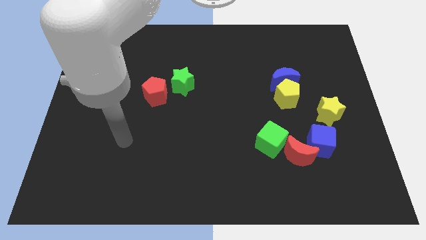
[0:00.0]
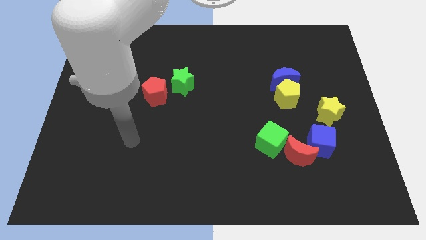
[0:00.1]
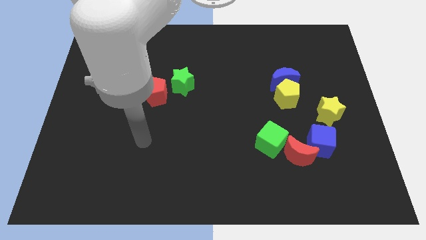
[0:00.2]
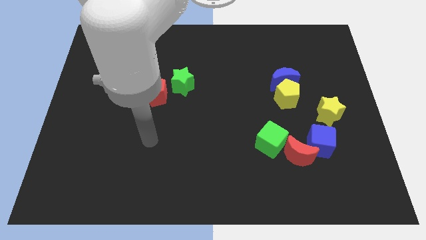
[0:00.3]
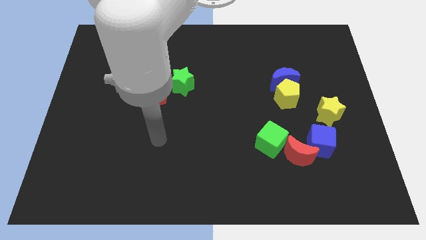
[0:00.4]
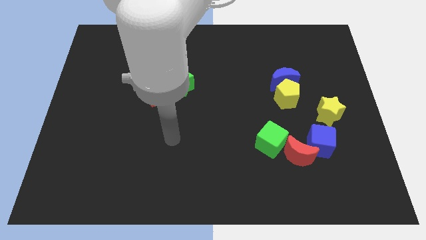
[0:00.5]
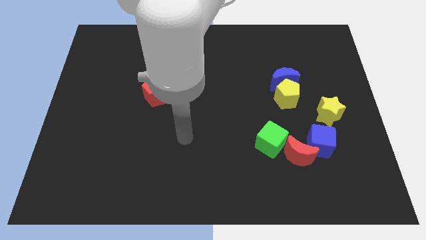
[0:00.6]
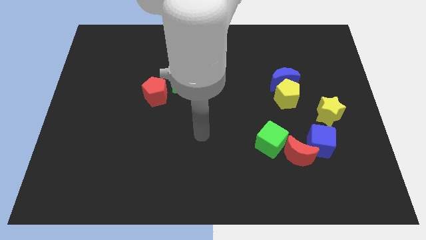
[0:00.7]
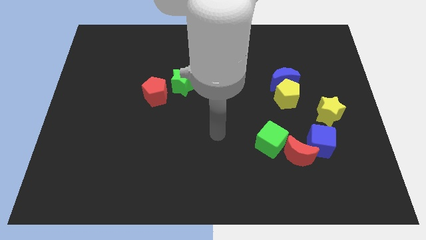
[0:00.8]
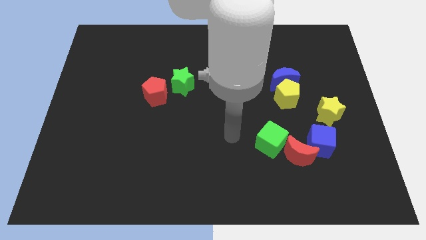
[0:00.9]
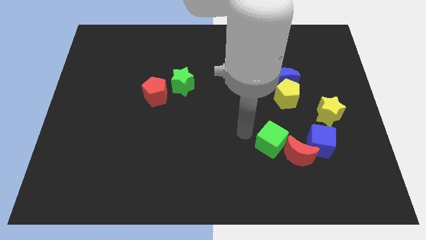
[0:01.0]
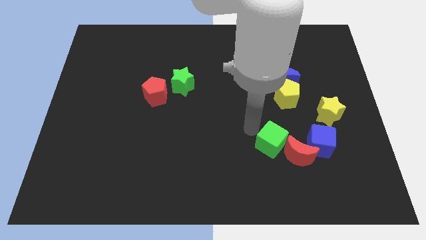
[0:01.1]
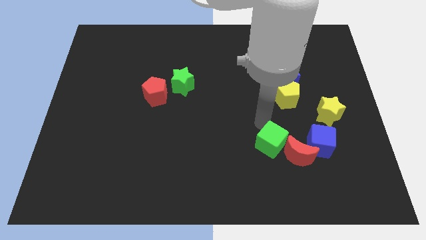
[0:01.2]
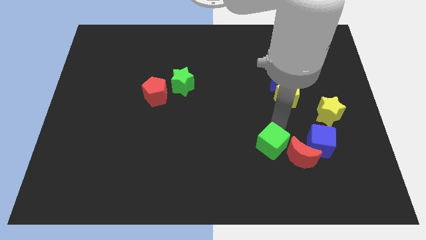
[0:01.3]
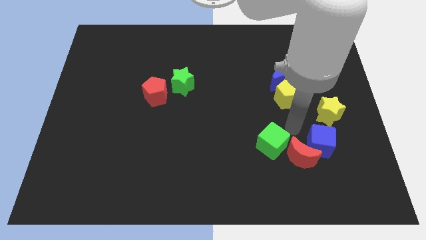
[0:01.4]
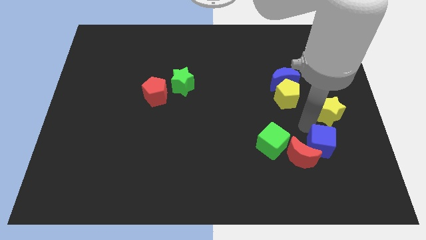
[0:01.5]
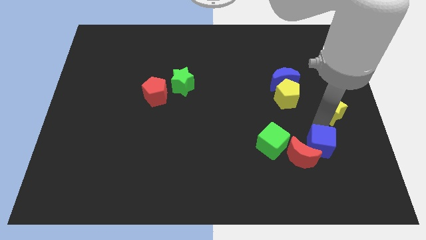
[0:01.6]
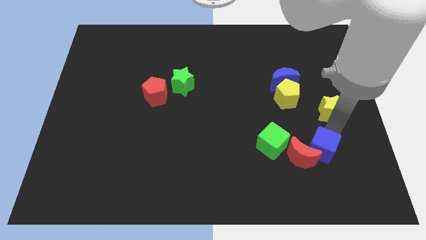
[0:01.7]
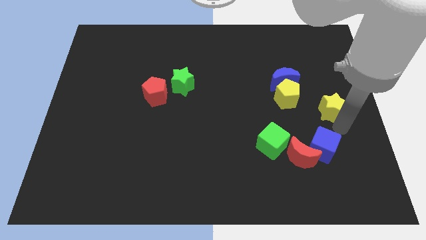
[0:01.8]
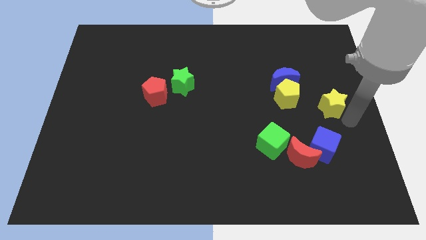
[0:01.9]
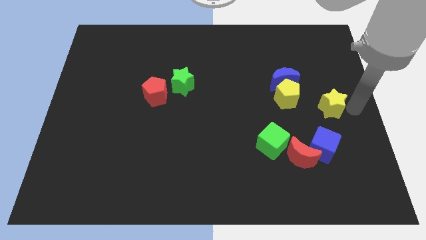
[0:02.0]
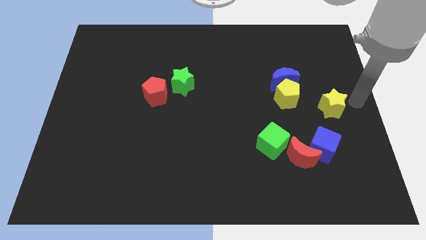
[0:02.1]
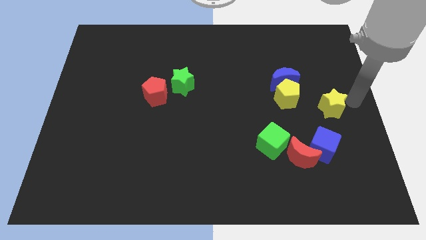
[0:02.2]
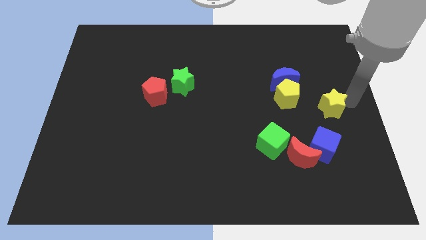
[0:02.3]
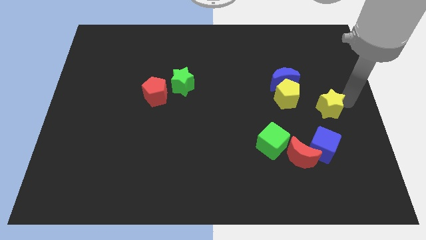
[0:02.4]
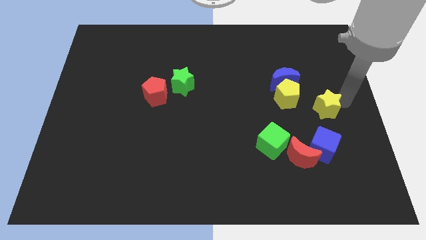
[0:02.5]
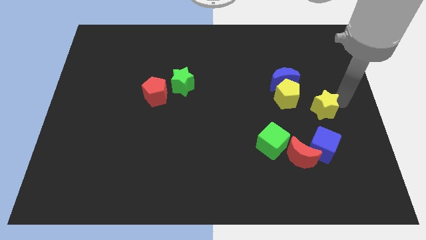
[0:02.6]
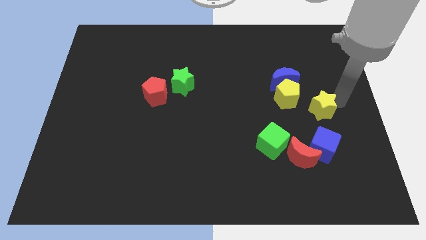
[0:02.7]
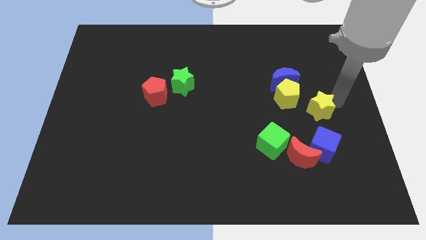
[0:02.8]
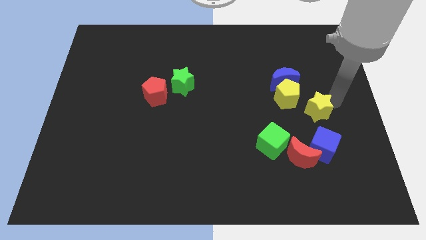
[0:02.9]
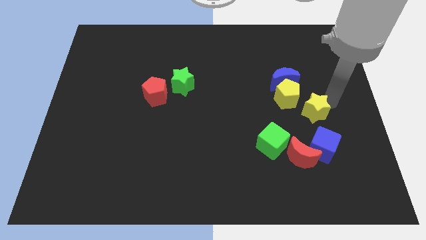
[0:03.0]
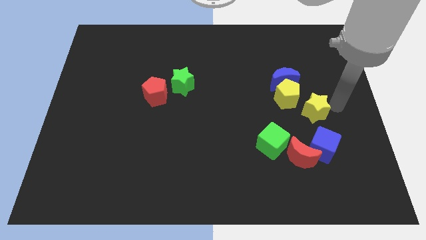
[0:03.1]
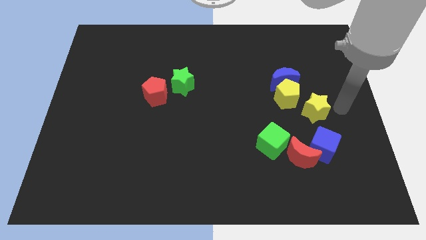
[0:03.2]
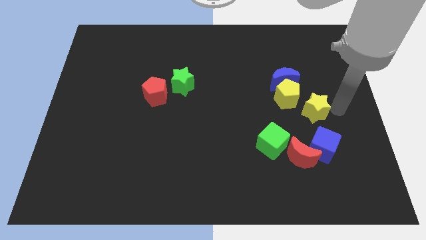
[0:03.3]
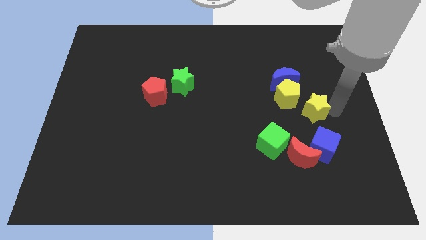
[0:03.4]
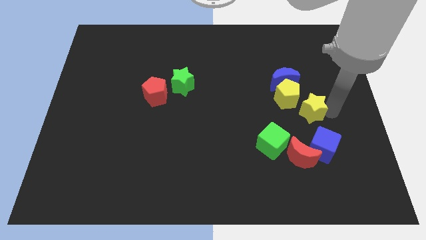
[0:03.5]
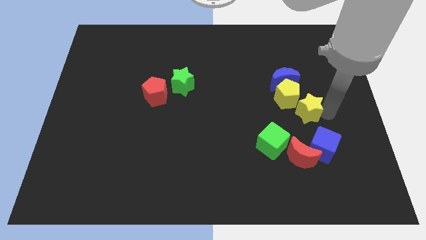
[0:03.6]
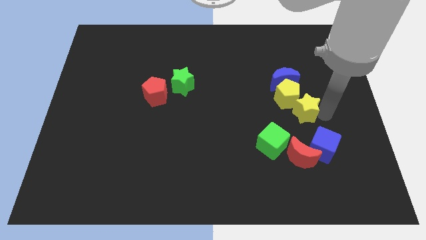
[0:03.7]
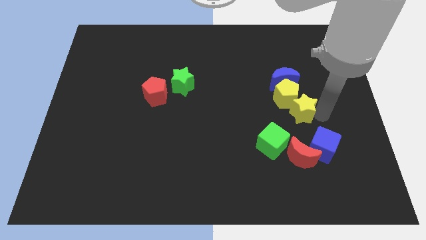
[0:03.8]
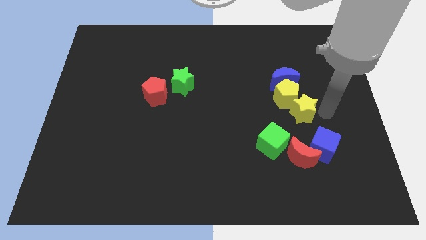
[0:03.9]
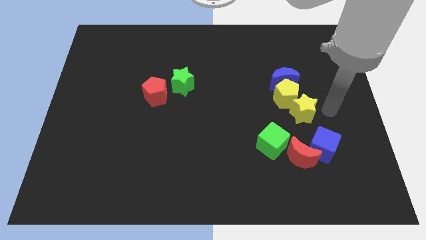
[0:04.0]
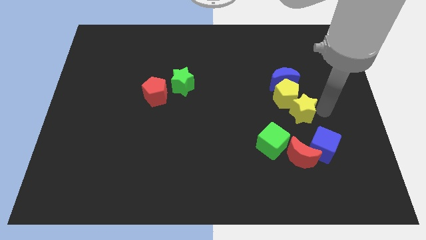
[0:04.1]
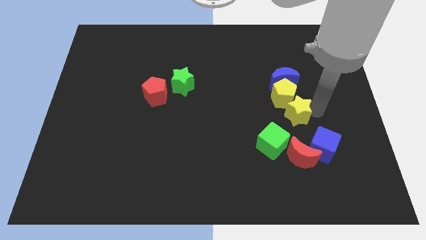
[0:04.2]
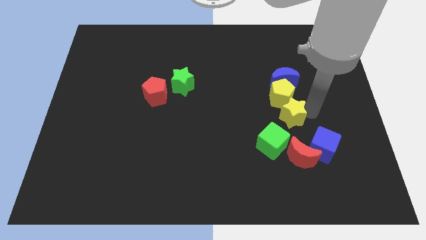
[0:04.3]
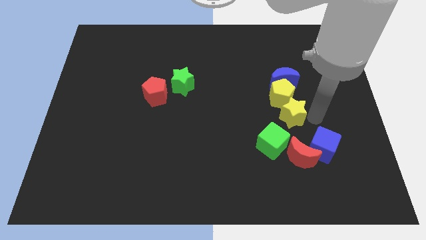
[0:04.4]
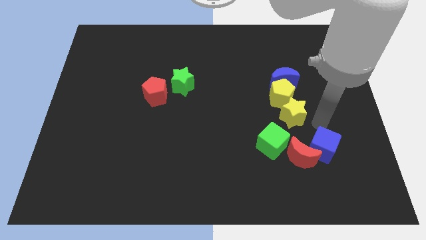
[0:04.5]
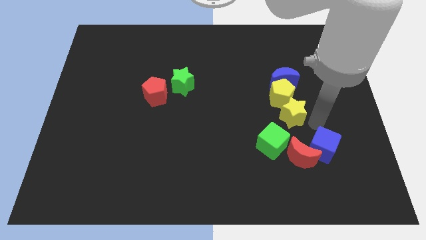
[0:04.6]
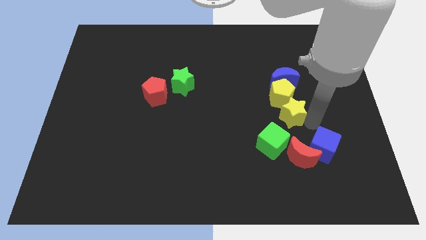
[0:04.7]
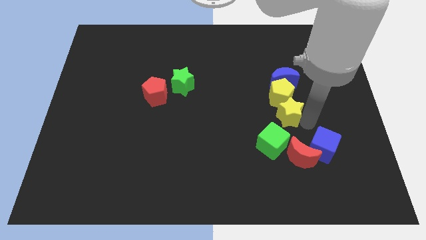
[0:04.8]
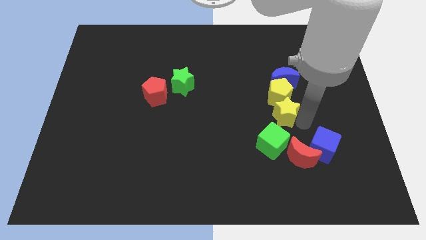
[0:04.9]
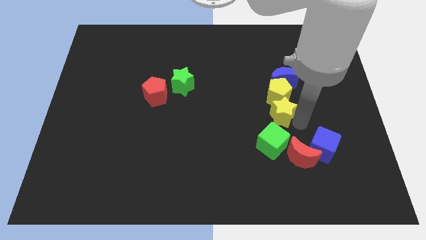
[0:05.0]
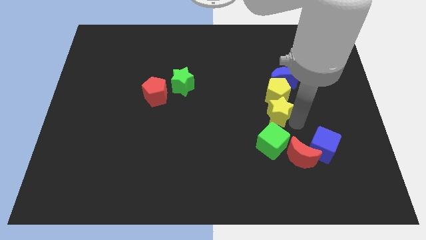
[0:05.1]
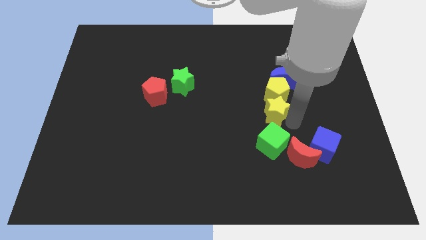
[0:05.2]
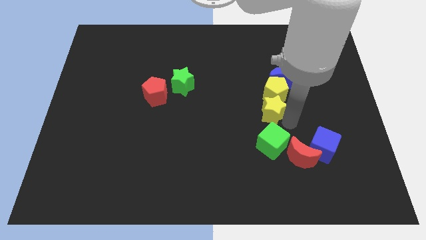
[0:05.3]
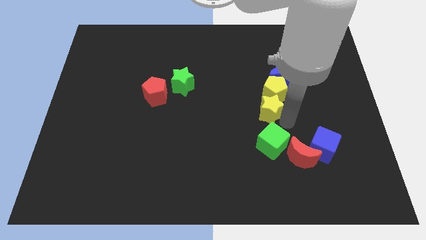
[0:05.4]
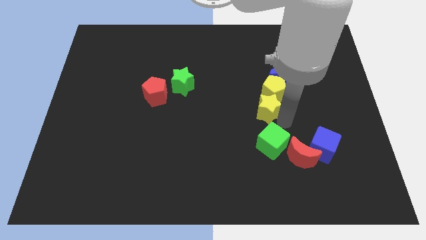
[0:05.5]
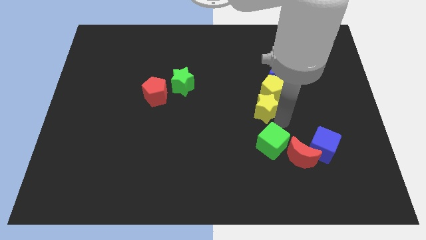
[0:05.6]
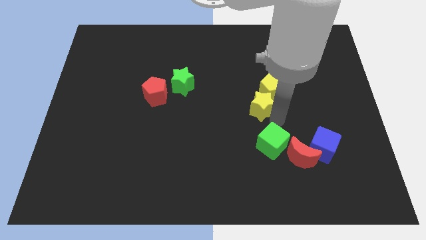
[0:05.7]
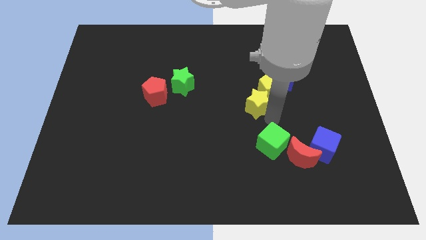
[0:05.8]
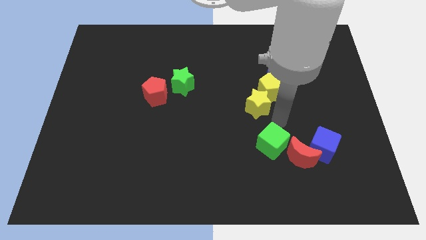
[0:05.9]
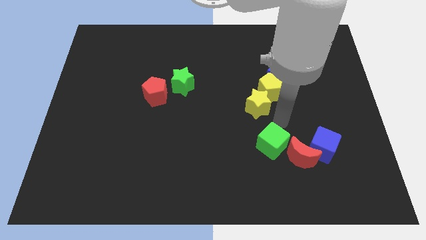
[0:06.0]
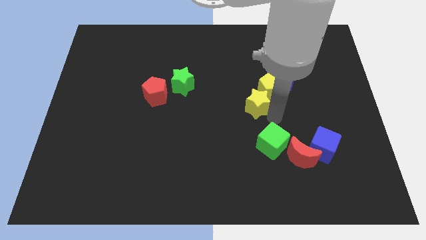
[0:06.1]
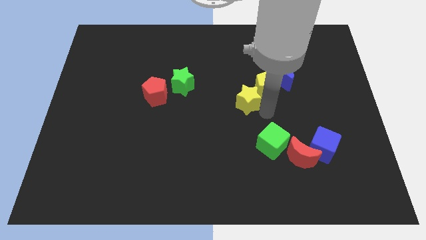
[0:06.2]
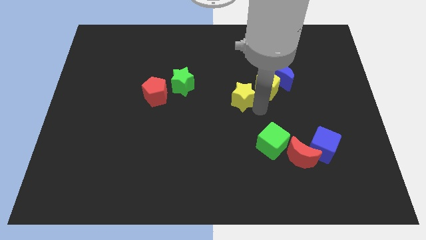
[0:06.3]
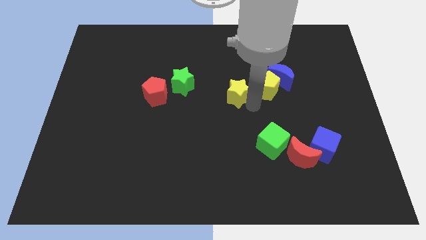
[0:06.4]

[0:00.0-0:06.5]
slide the yellow star to the right of the green star
